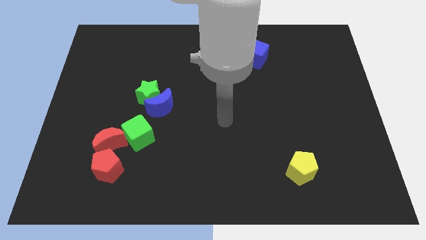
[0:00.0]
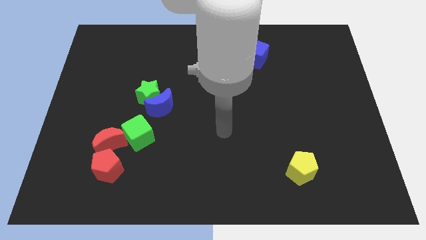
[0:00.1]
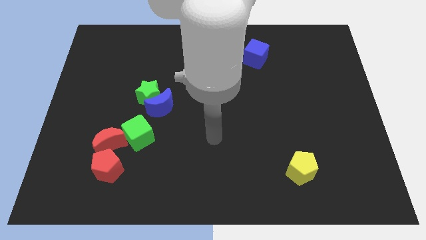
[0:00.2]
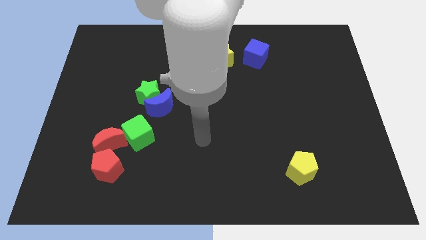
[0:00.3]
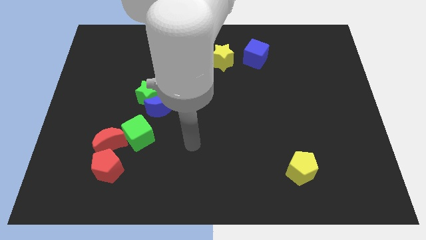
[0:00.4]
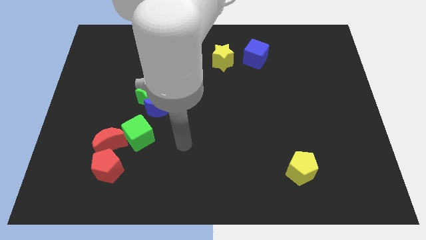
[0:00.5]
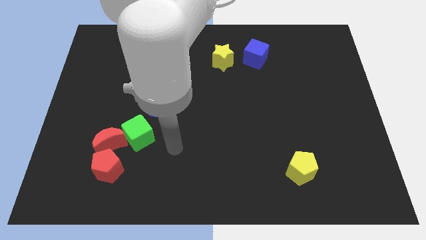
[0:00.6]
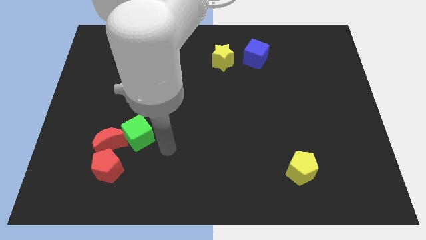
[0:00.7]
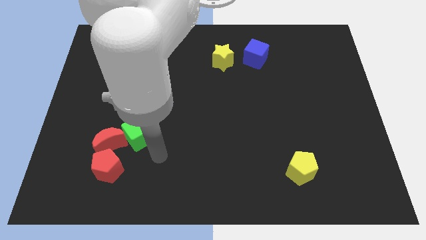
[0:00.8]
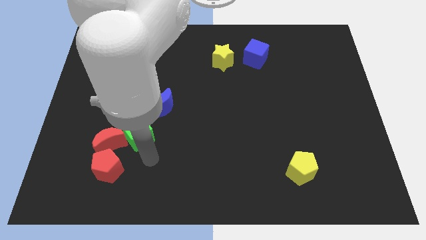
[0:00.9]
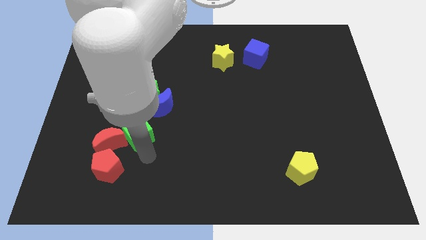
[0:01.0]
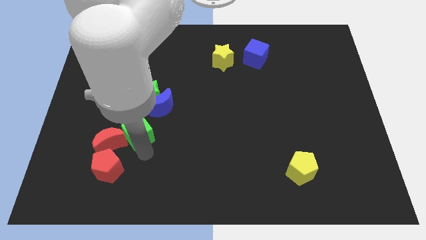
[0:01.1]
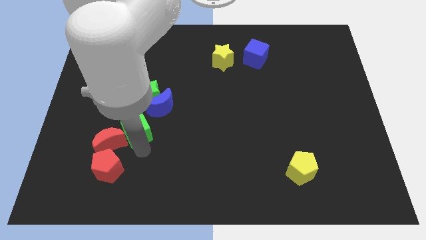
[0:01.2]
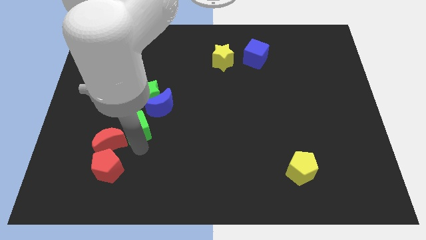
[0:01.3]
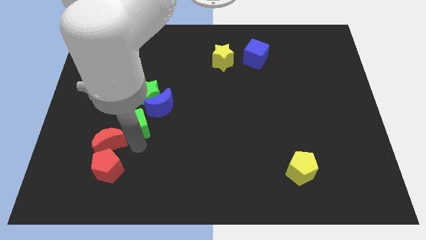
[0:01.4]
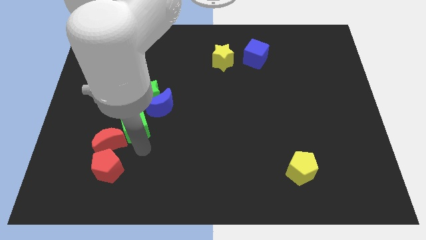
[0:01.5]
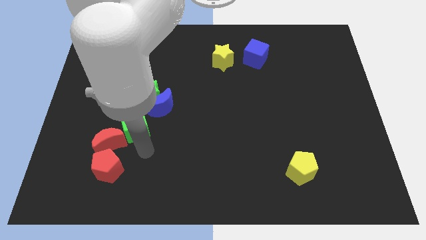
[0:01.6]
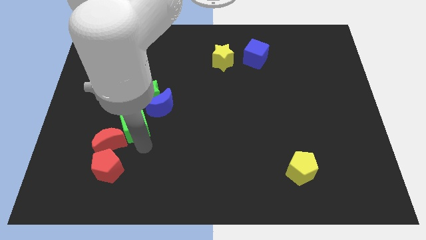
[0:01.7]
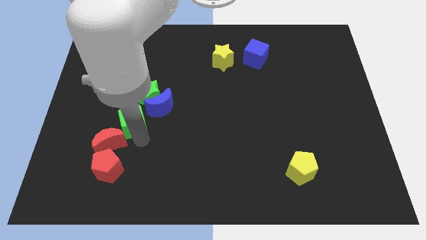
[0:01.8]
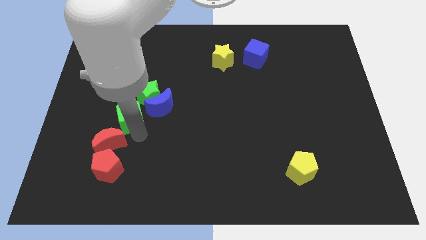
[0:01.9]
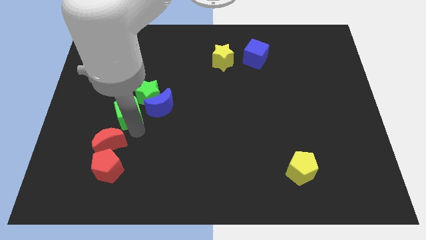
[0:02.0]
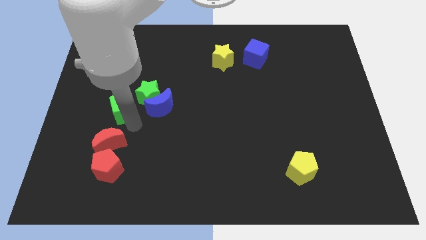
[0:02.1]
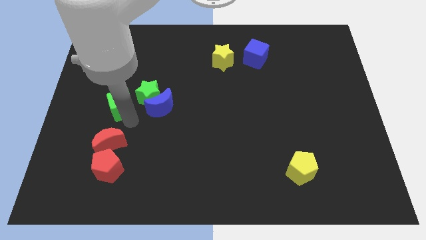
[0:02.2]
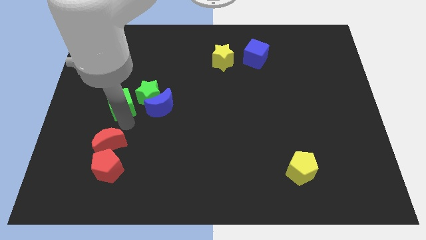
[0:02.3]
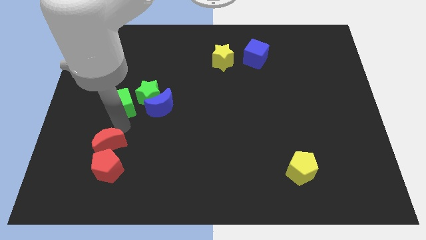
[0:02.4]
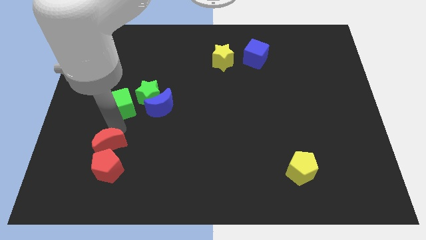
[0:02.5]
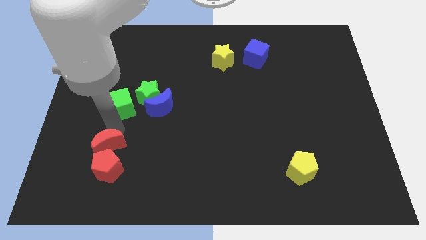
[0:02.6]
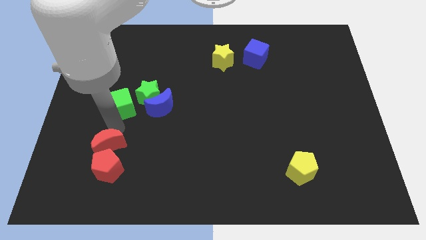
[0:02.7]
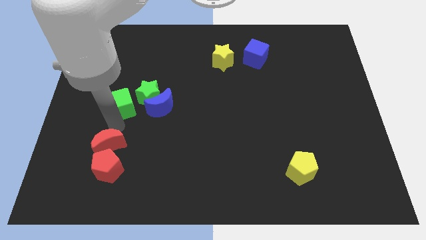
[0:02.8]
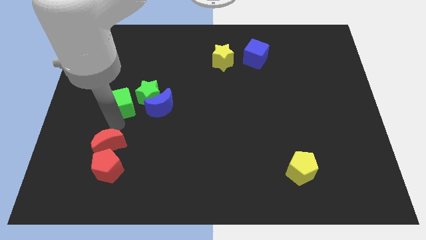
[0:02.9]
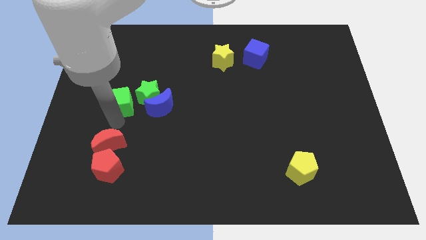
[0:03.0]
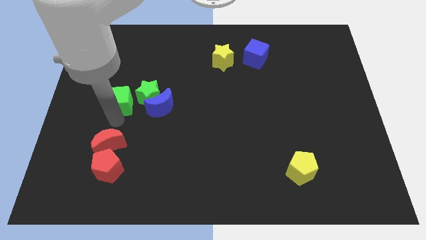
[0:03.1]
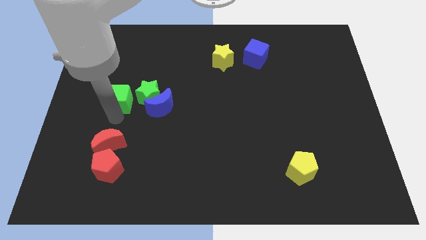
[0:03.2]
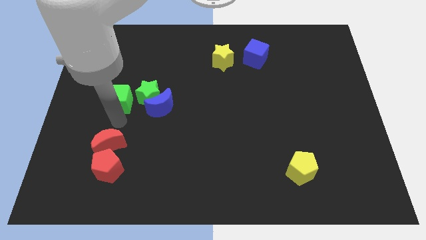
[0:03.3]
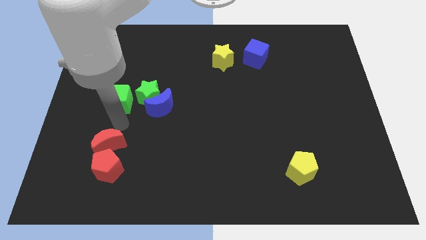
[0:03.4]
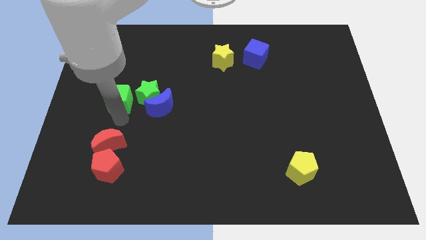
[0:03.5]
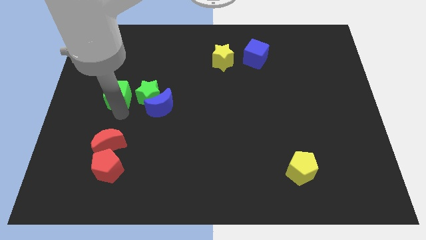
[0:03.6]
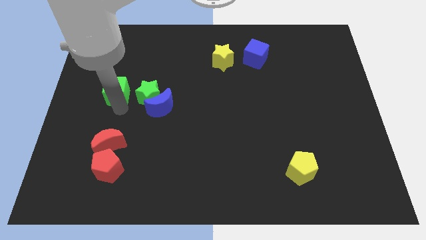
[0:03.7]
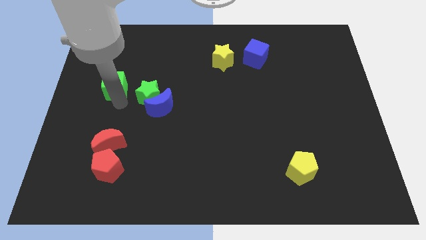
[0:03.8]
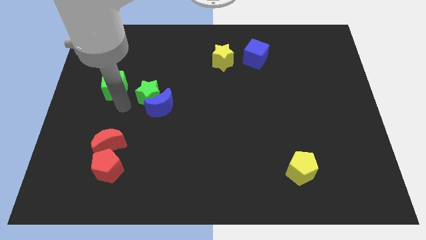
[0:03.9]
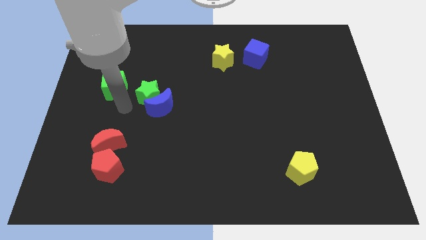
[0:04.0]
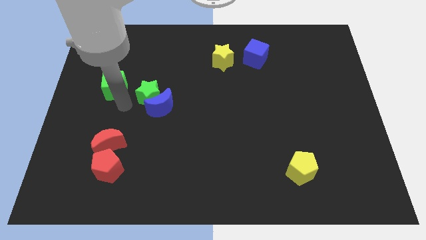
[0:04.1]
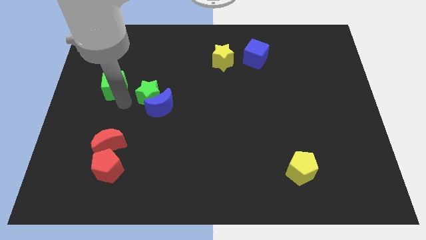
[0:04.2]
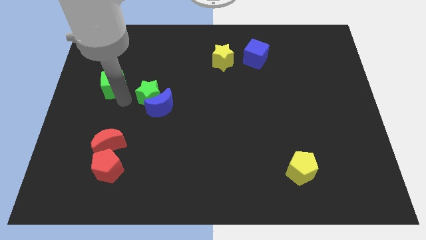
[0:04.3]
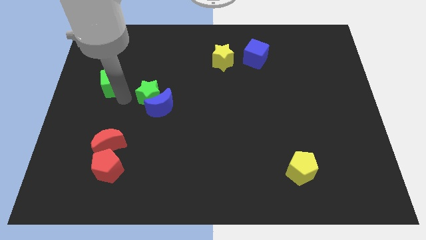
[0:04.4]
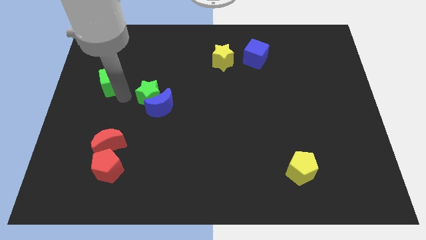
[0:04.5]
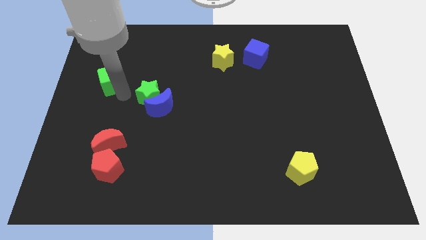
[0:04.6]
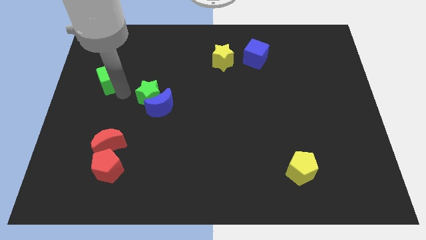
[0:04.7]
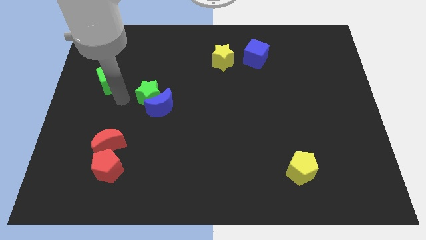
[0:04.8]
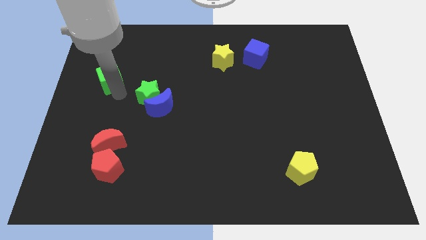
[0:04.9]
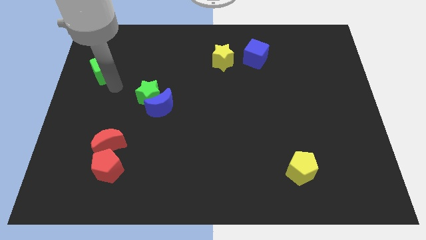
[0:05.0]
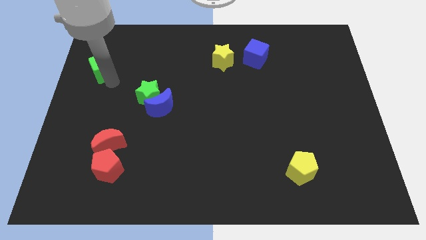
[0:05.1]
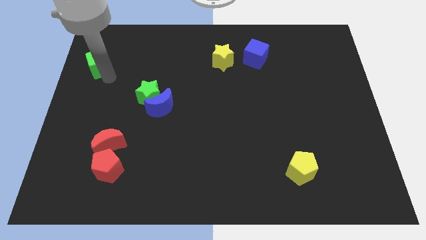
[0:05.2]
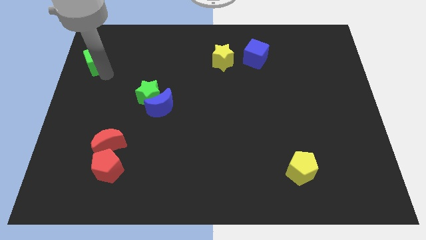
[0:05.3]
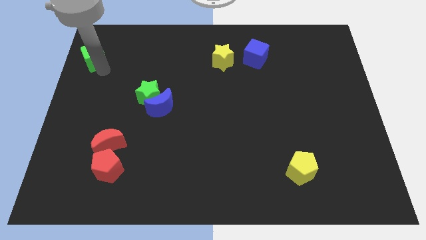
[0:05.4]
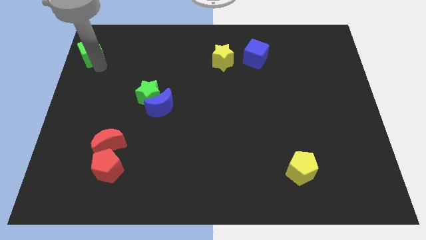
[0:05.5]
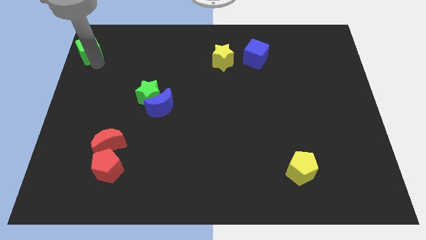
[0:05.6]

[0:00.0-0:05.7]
push the green cube to the top left

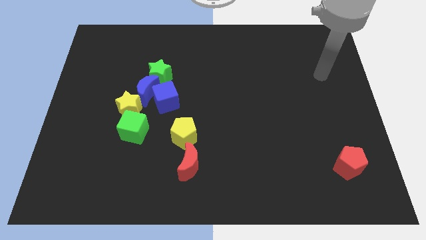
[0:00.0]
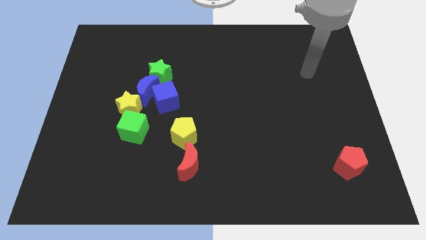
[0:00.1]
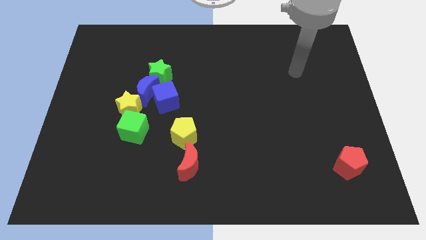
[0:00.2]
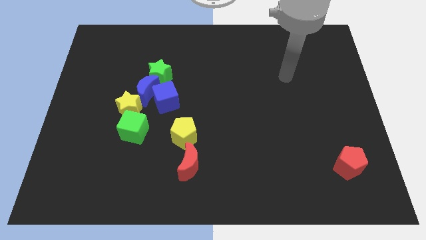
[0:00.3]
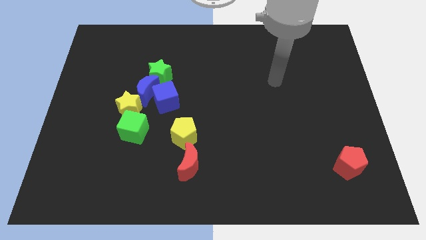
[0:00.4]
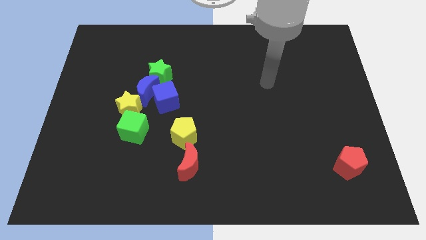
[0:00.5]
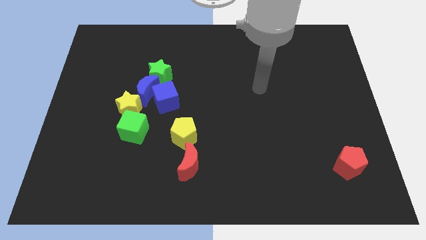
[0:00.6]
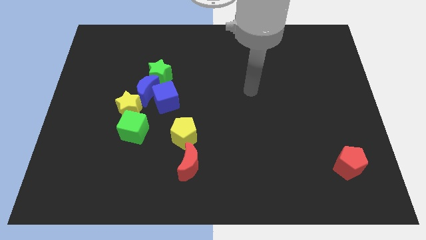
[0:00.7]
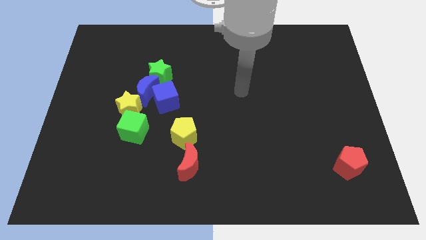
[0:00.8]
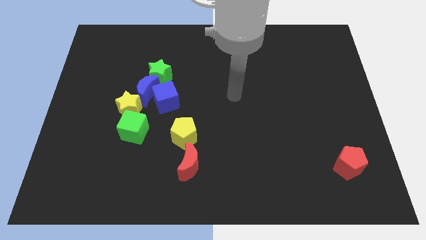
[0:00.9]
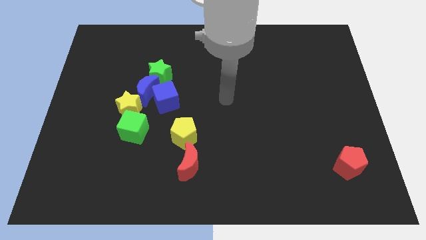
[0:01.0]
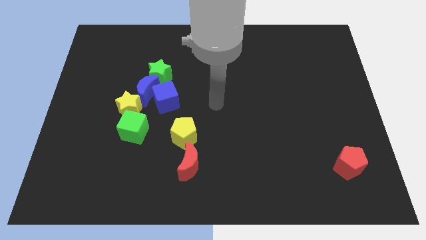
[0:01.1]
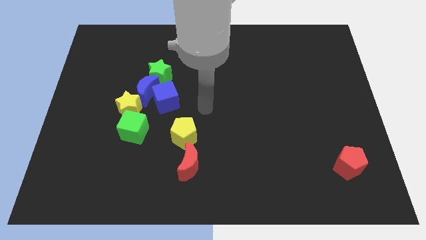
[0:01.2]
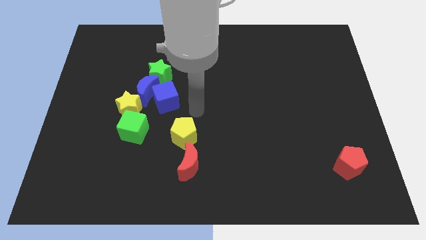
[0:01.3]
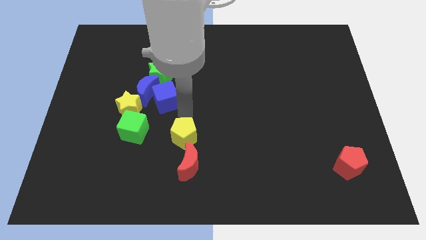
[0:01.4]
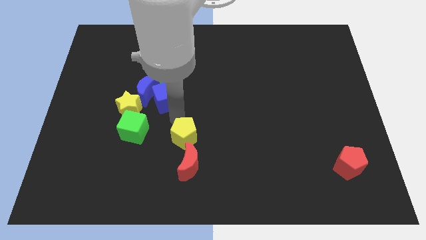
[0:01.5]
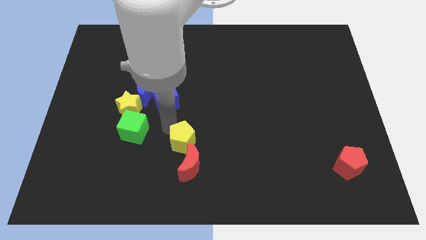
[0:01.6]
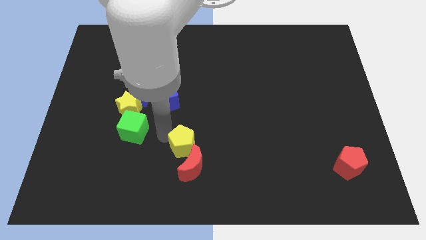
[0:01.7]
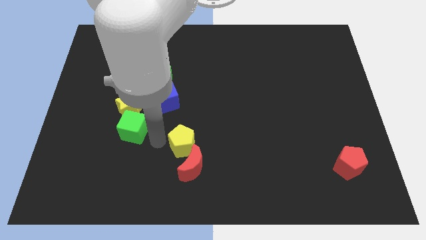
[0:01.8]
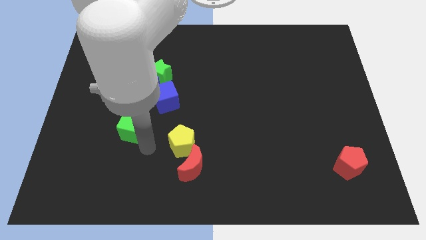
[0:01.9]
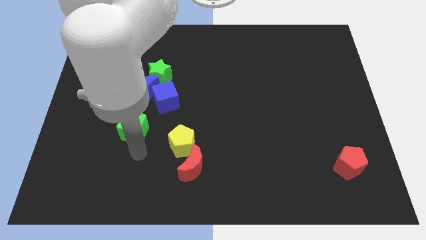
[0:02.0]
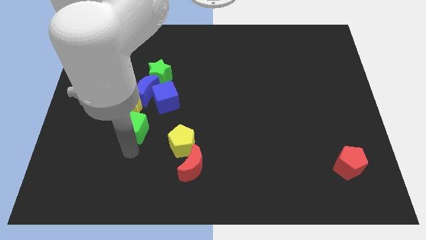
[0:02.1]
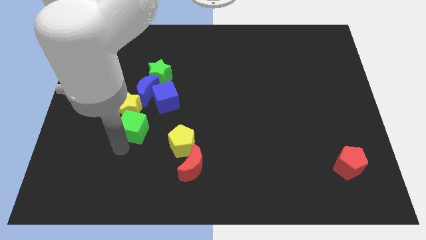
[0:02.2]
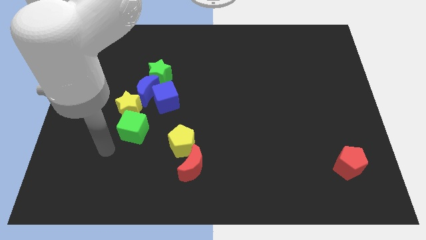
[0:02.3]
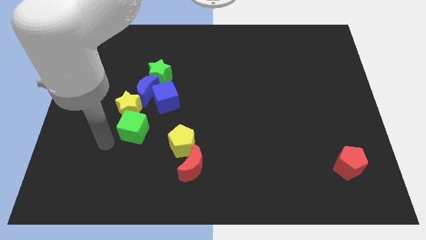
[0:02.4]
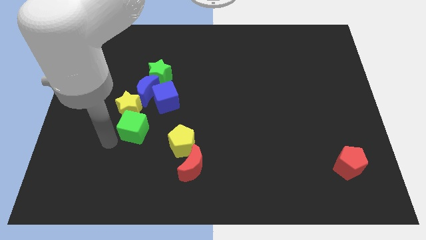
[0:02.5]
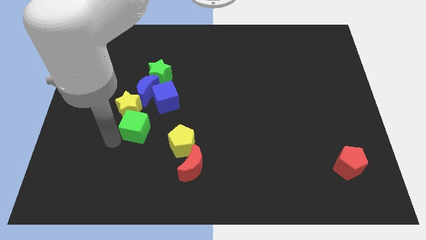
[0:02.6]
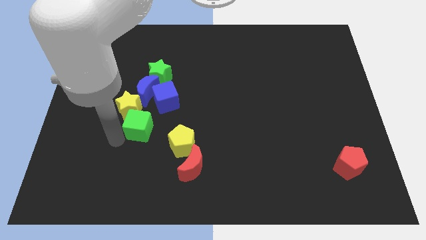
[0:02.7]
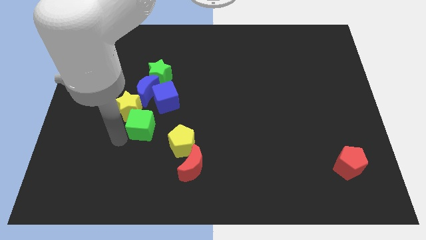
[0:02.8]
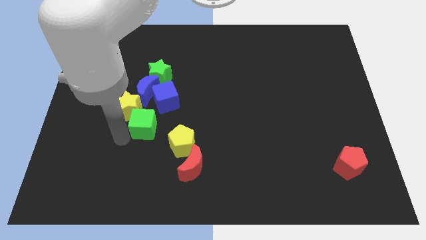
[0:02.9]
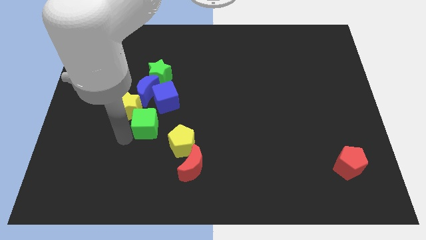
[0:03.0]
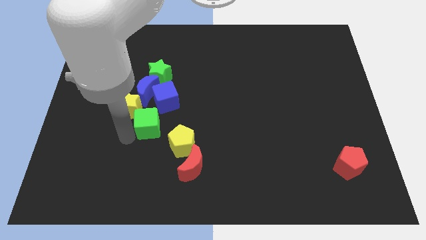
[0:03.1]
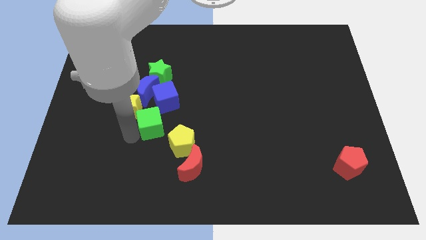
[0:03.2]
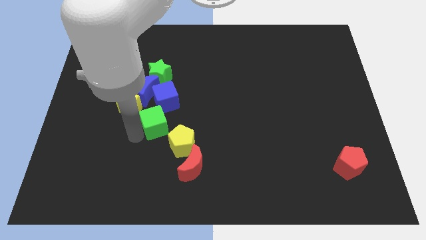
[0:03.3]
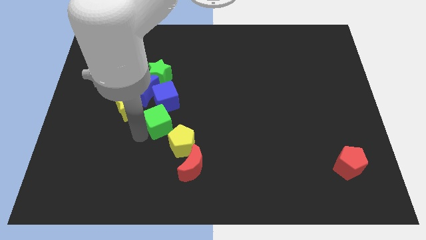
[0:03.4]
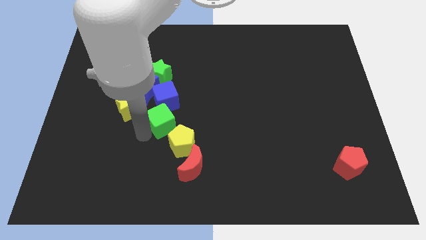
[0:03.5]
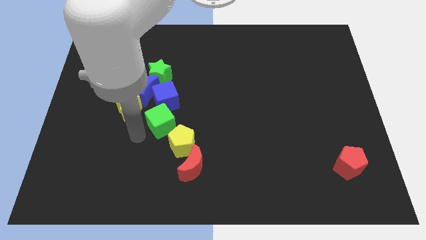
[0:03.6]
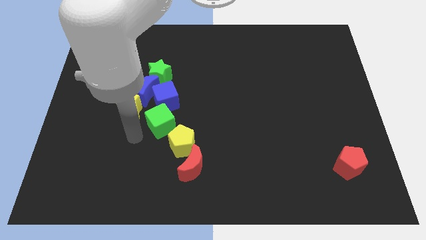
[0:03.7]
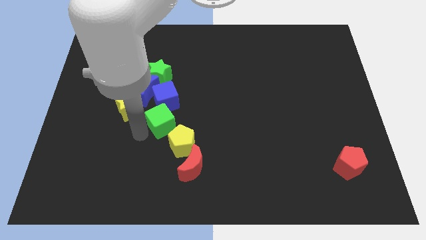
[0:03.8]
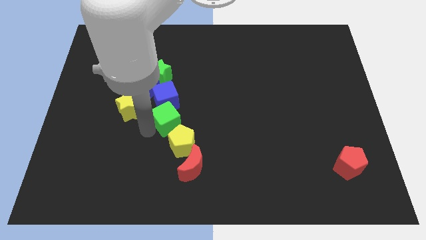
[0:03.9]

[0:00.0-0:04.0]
put the green cube to the center
